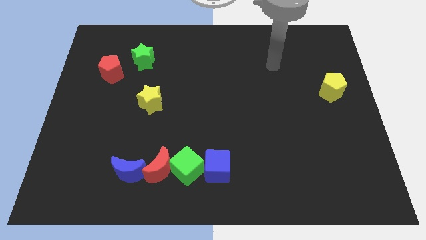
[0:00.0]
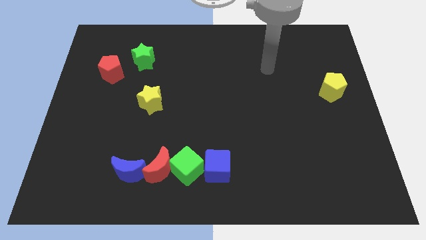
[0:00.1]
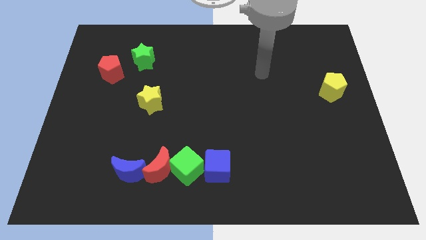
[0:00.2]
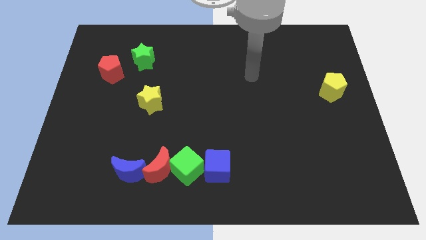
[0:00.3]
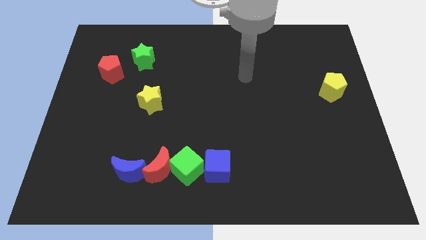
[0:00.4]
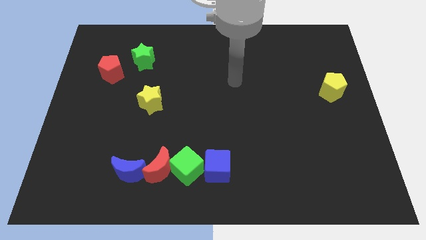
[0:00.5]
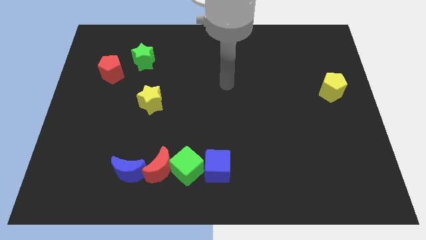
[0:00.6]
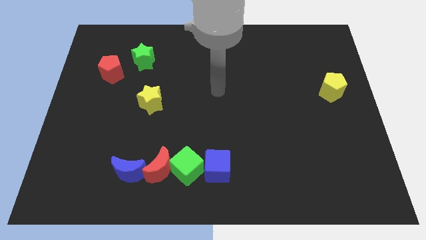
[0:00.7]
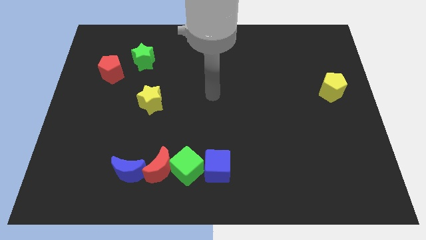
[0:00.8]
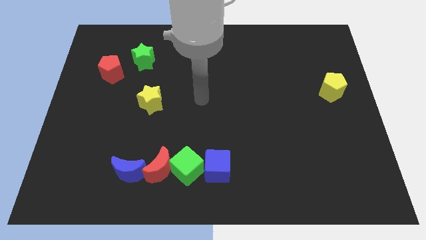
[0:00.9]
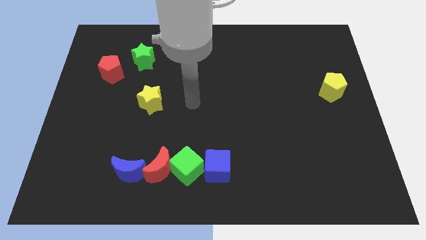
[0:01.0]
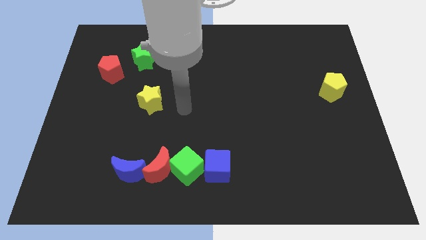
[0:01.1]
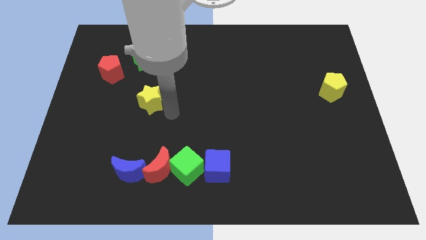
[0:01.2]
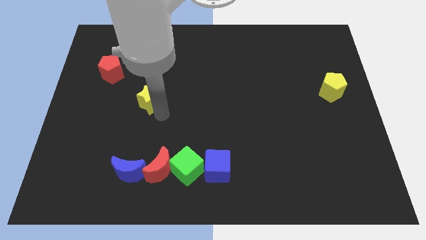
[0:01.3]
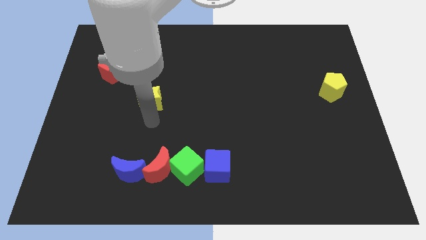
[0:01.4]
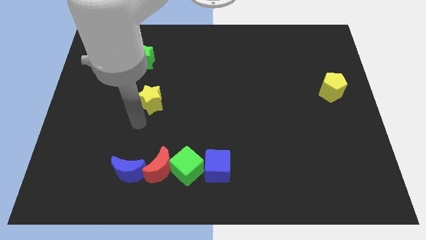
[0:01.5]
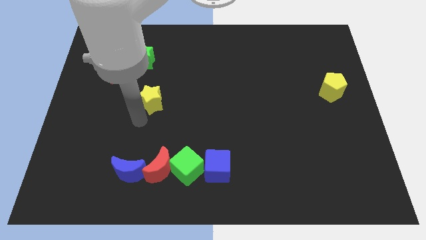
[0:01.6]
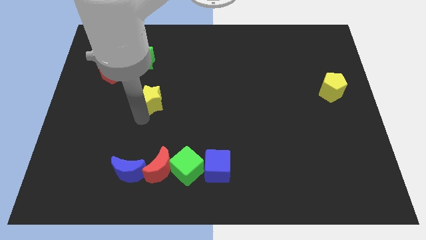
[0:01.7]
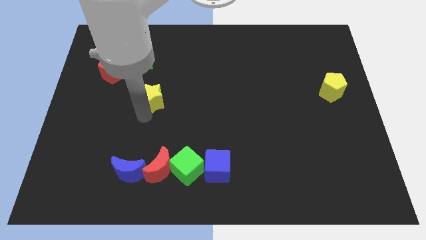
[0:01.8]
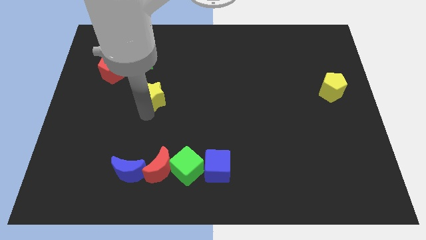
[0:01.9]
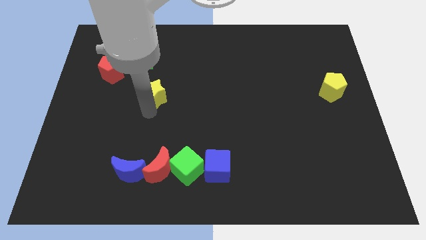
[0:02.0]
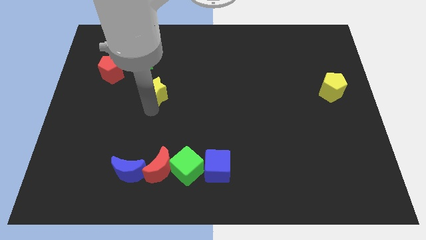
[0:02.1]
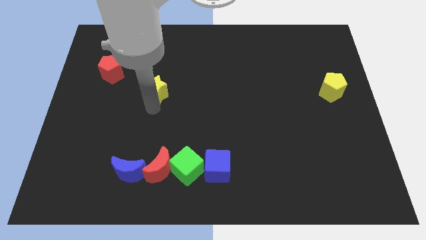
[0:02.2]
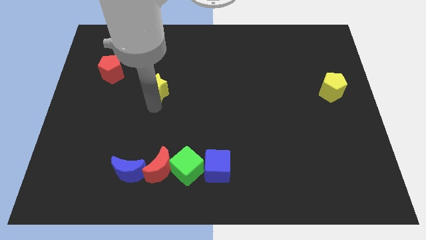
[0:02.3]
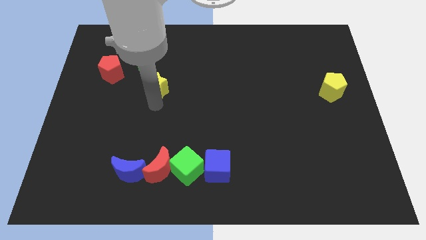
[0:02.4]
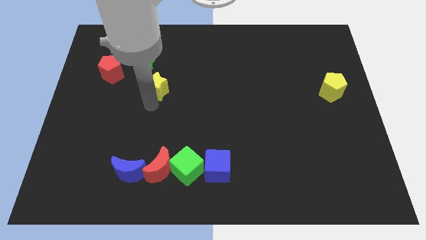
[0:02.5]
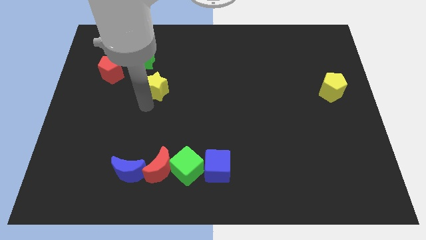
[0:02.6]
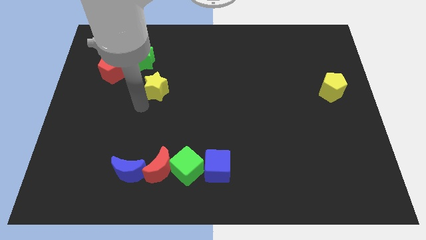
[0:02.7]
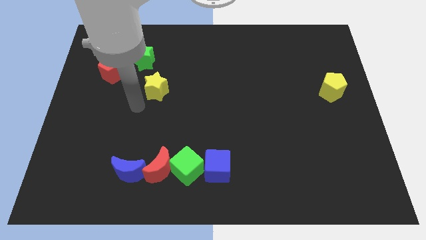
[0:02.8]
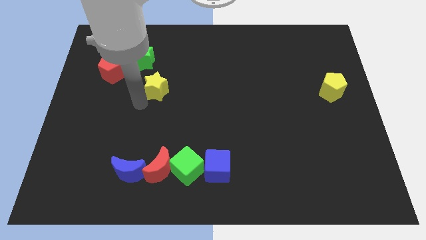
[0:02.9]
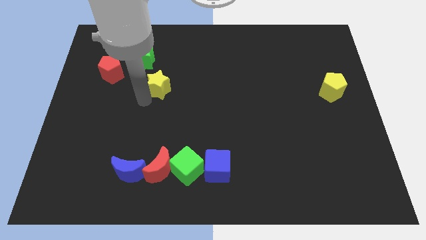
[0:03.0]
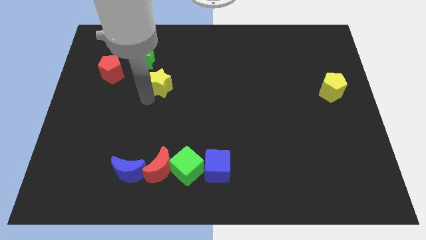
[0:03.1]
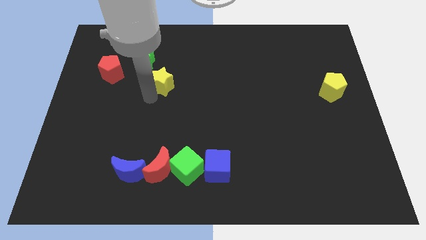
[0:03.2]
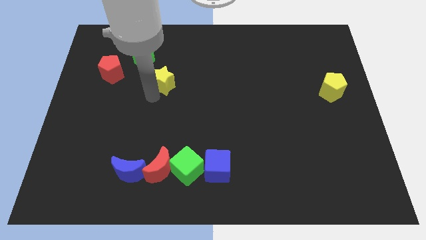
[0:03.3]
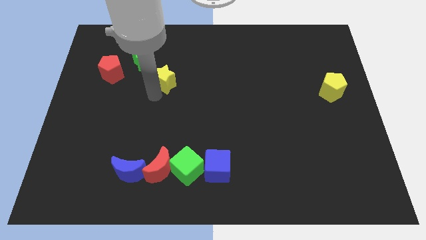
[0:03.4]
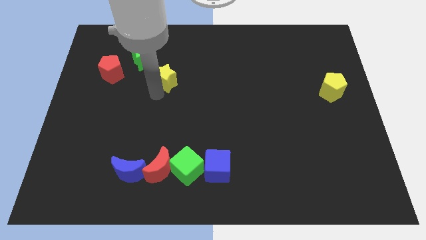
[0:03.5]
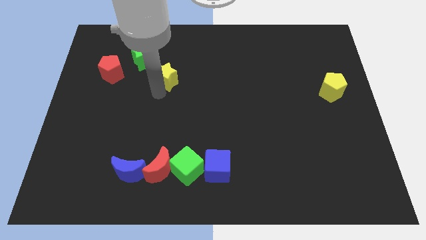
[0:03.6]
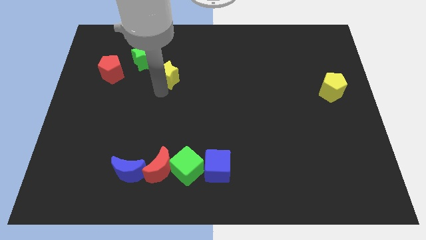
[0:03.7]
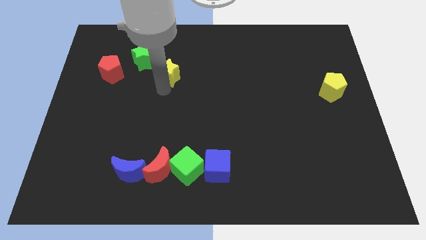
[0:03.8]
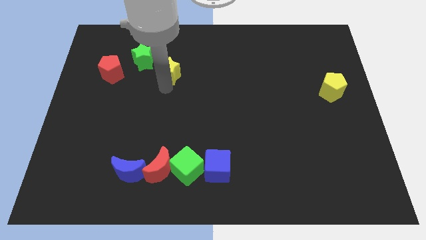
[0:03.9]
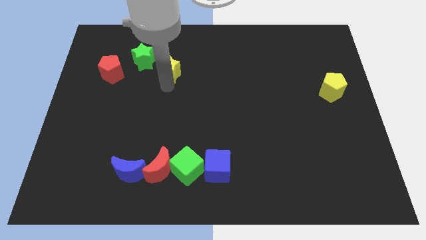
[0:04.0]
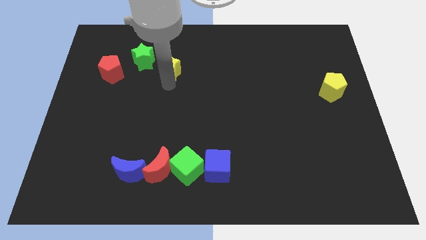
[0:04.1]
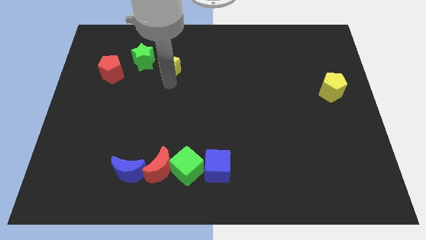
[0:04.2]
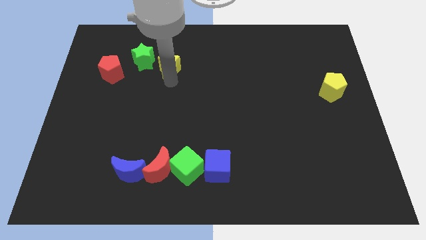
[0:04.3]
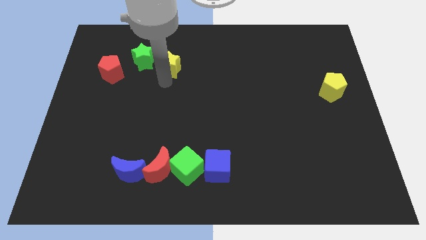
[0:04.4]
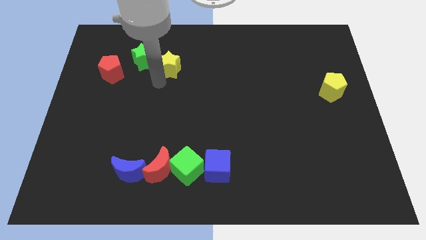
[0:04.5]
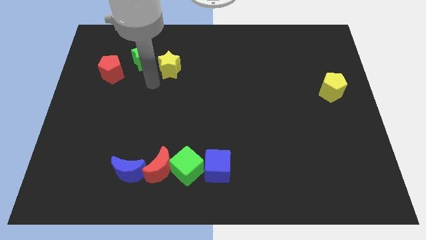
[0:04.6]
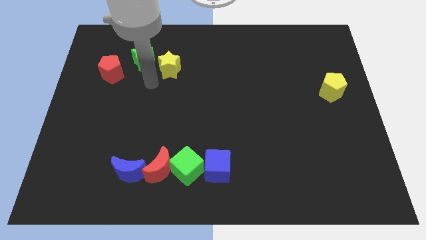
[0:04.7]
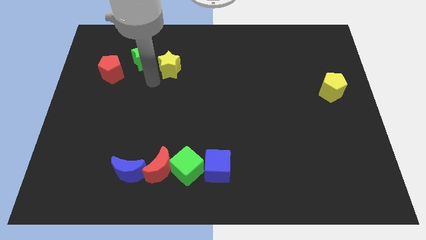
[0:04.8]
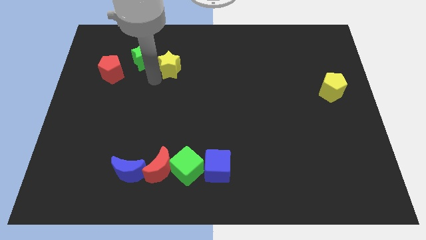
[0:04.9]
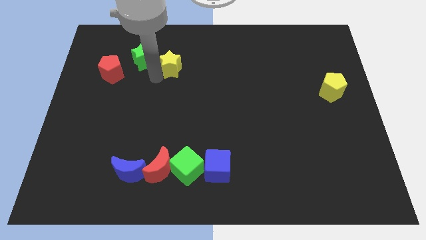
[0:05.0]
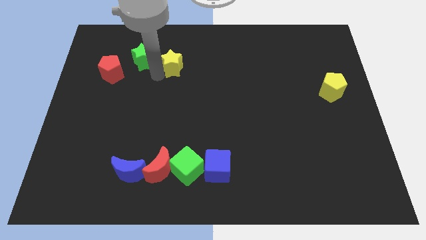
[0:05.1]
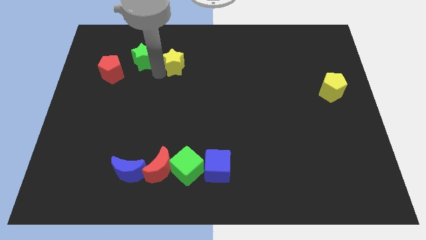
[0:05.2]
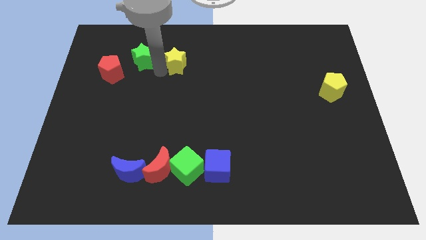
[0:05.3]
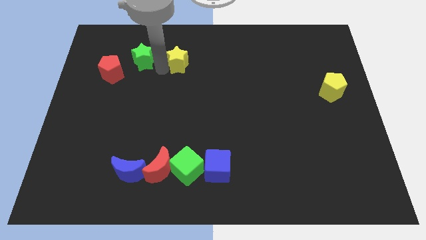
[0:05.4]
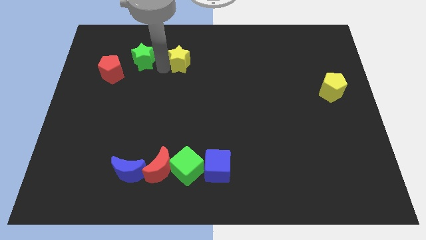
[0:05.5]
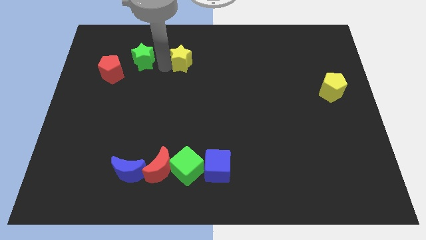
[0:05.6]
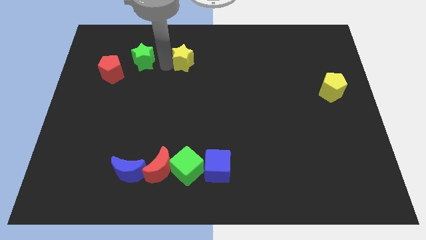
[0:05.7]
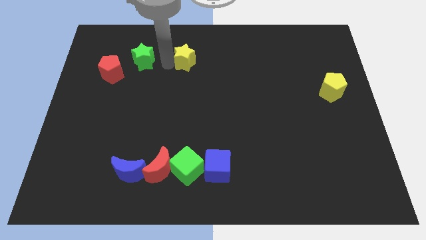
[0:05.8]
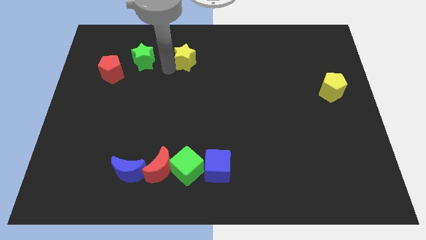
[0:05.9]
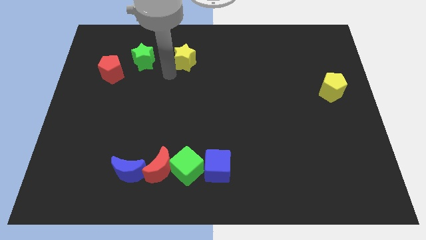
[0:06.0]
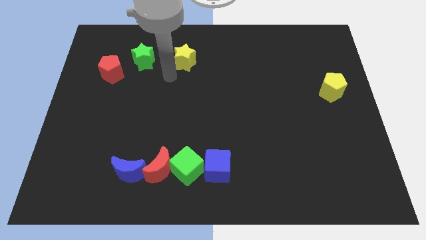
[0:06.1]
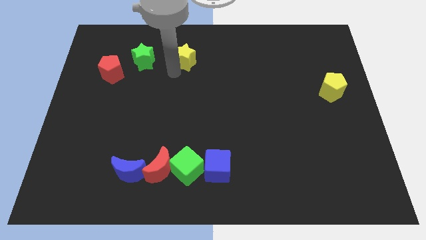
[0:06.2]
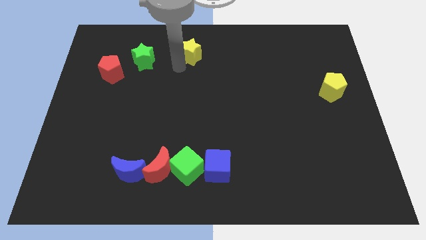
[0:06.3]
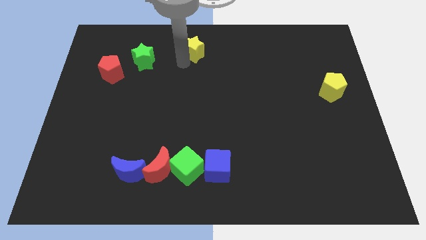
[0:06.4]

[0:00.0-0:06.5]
move the yellow star to the top
